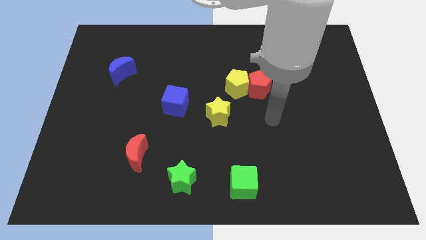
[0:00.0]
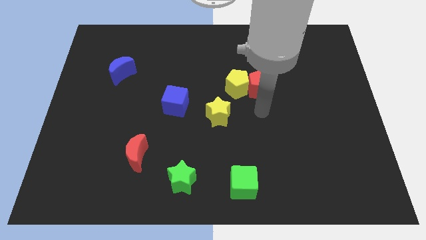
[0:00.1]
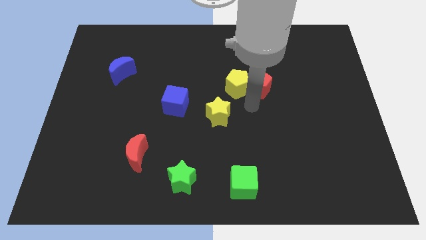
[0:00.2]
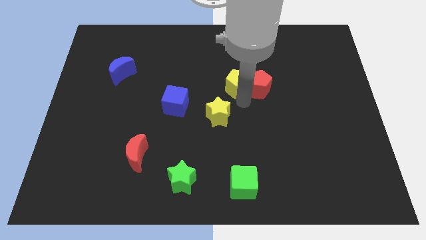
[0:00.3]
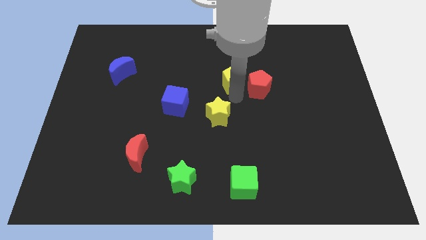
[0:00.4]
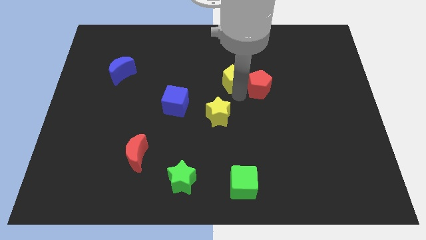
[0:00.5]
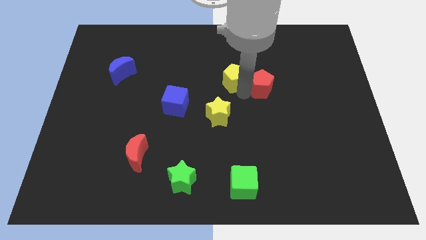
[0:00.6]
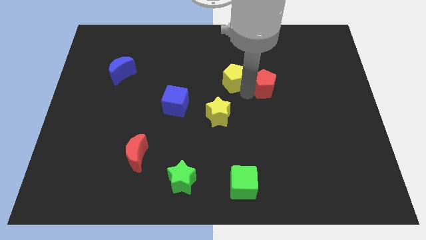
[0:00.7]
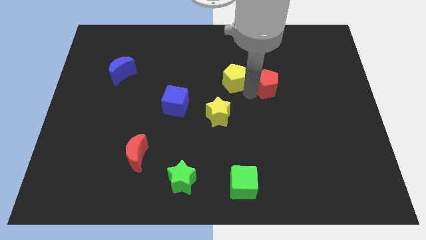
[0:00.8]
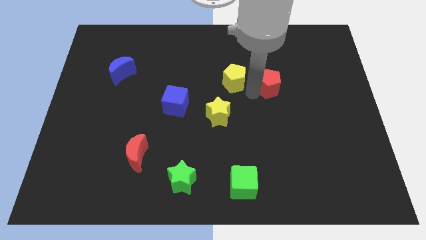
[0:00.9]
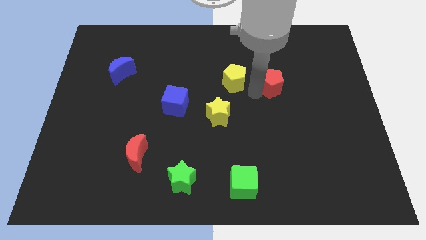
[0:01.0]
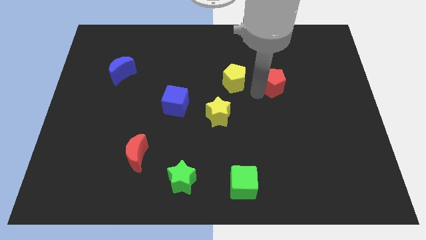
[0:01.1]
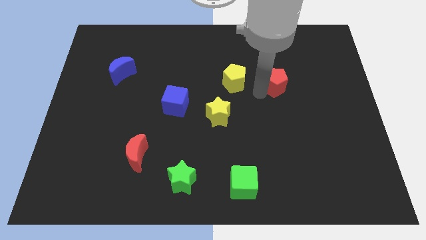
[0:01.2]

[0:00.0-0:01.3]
pull the red pentagon apart from the yellow pentagon

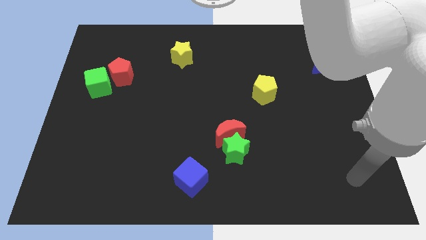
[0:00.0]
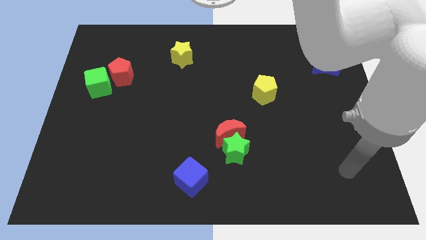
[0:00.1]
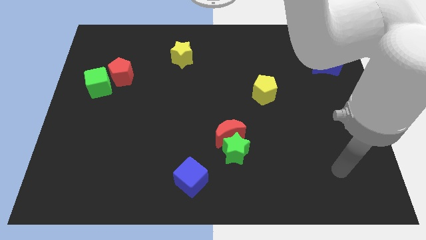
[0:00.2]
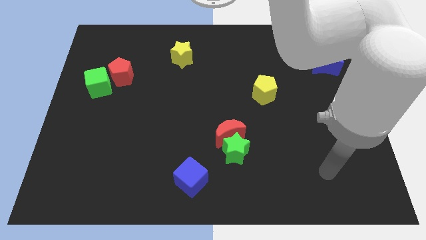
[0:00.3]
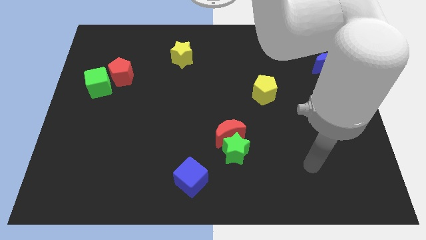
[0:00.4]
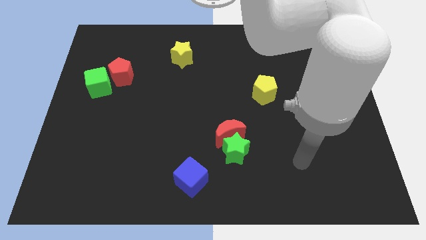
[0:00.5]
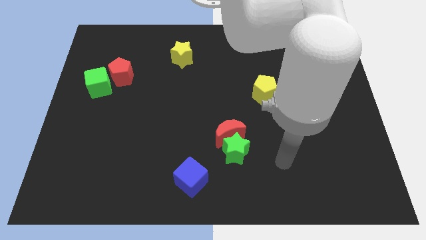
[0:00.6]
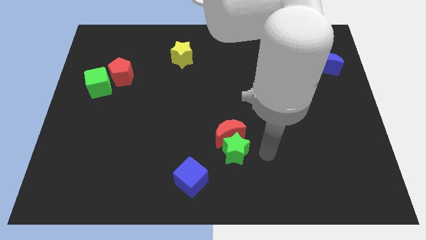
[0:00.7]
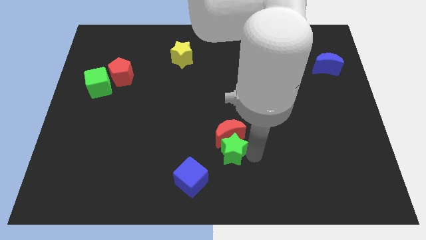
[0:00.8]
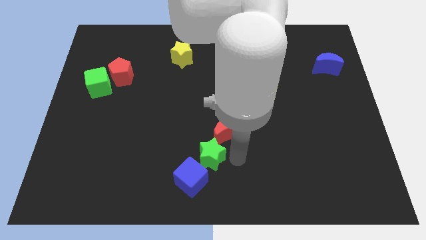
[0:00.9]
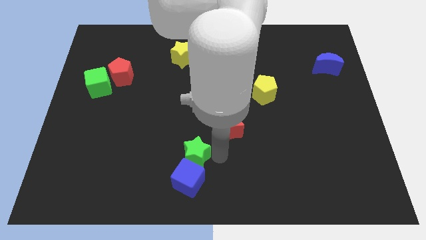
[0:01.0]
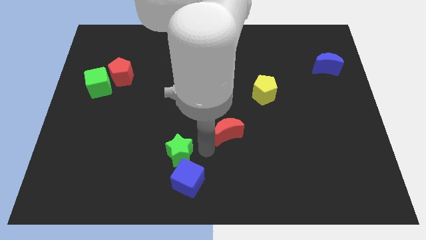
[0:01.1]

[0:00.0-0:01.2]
move the red moon away from the green star

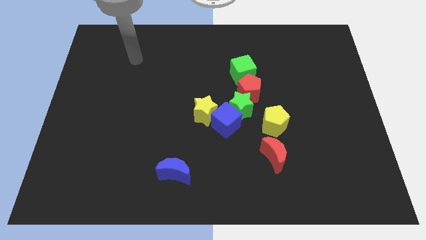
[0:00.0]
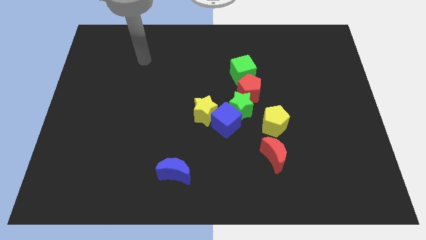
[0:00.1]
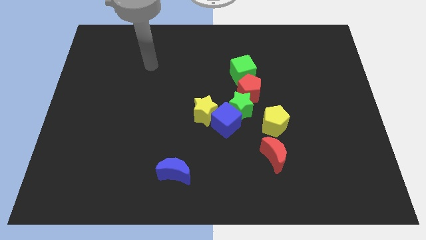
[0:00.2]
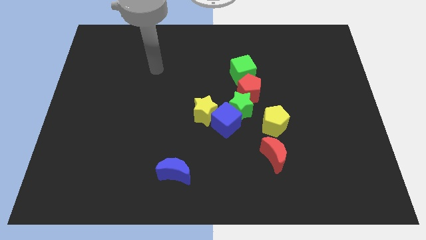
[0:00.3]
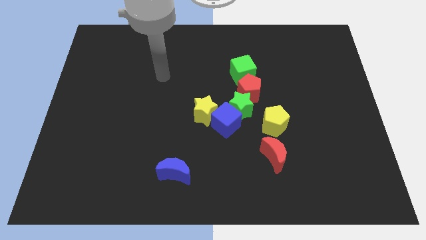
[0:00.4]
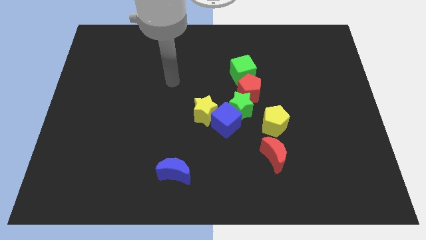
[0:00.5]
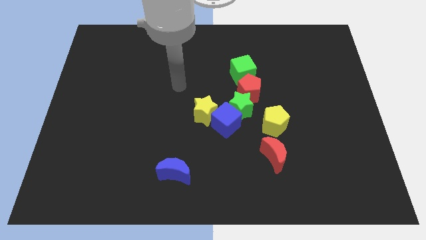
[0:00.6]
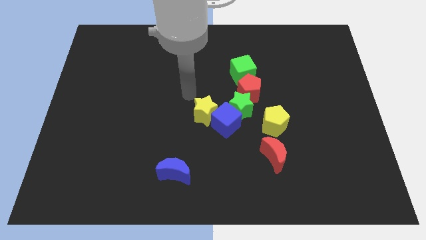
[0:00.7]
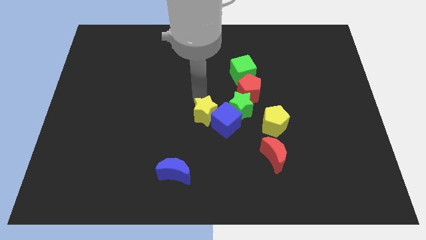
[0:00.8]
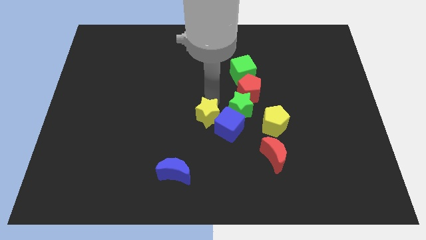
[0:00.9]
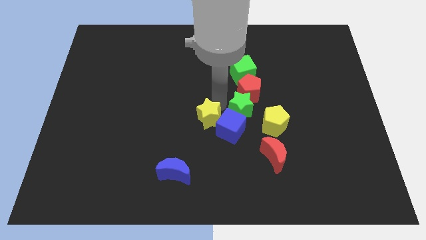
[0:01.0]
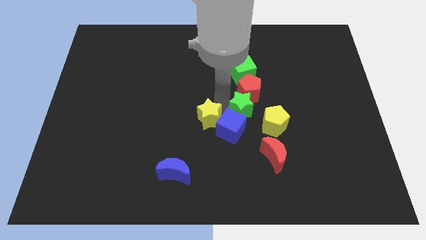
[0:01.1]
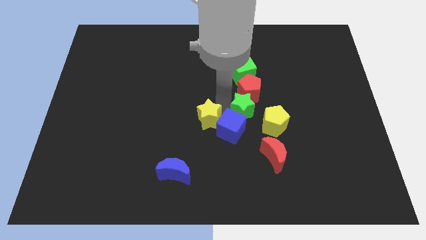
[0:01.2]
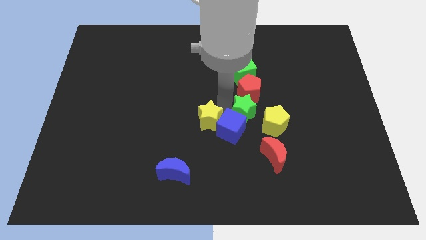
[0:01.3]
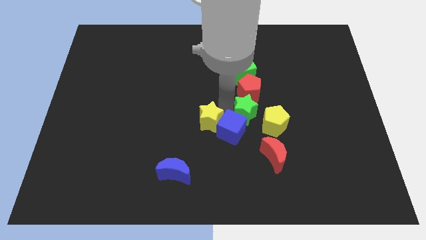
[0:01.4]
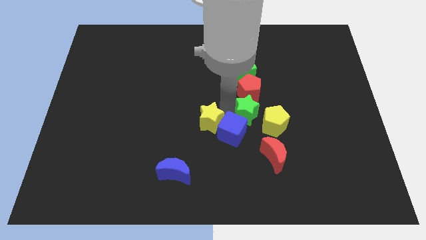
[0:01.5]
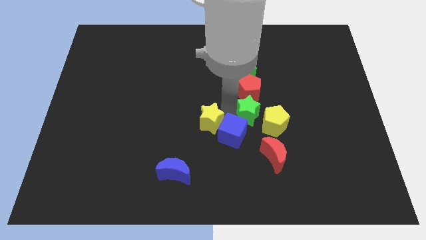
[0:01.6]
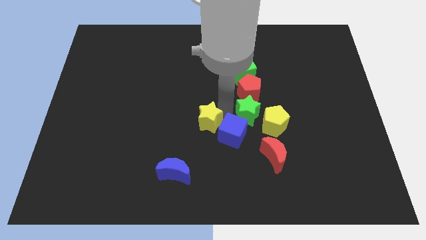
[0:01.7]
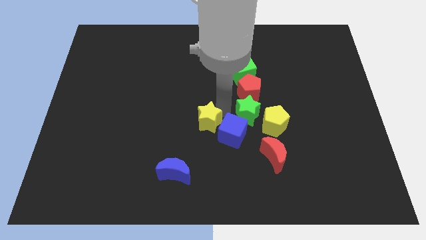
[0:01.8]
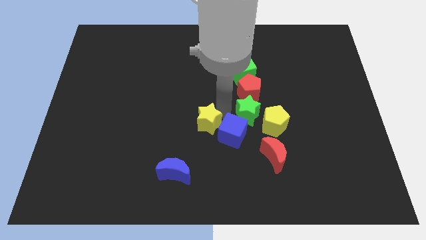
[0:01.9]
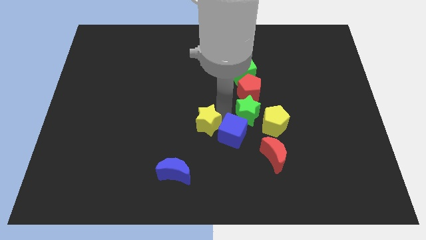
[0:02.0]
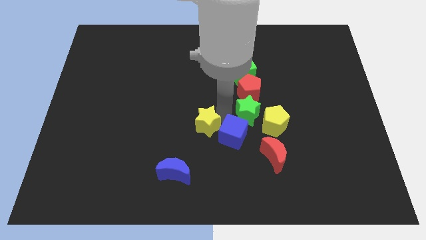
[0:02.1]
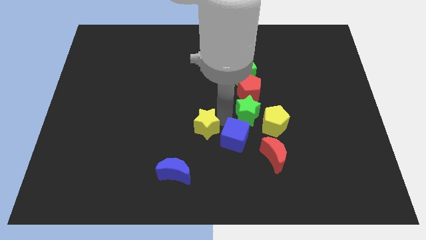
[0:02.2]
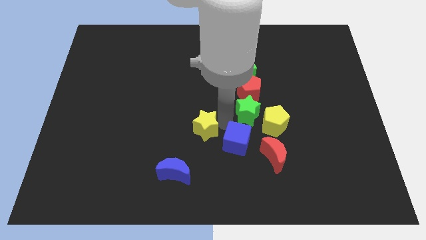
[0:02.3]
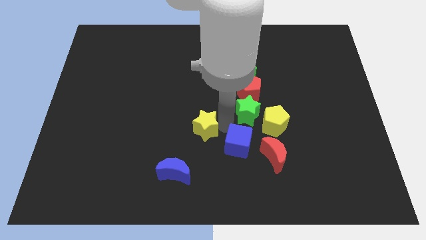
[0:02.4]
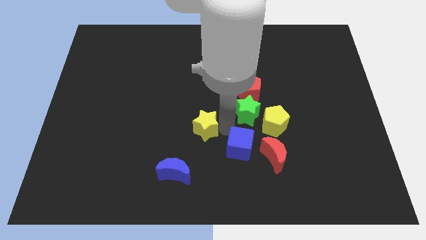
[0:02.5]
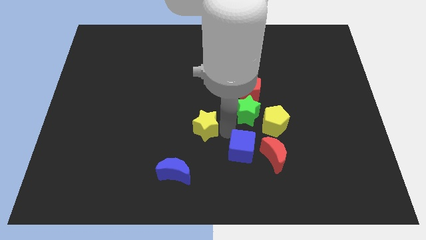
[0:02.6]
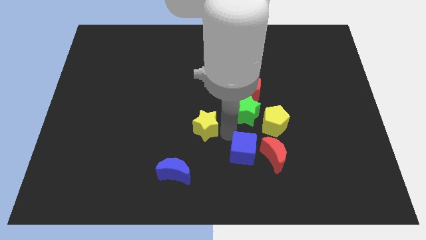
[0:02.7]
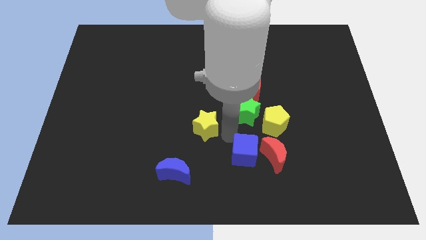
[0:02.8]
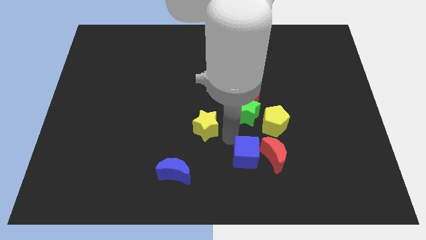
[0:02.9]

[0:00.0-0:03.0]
separate the blue cube from the green star and yellow star

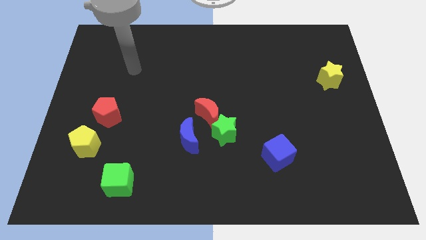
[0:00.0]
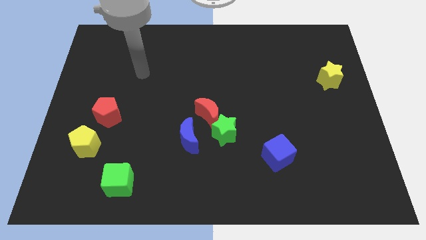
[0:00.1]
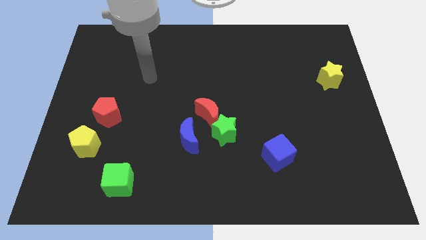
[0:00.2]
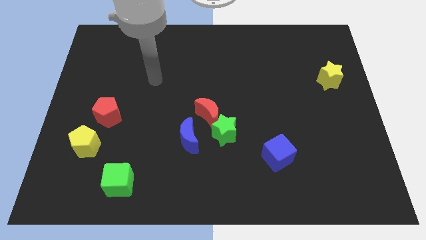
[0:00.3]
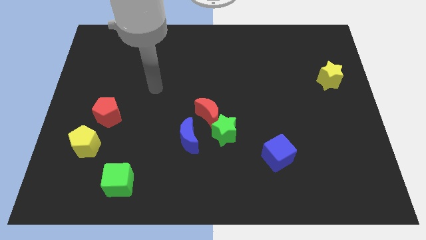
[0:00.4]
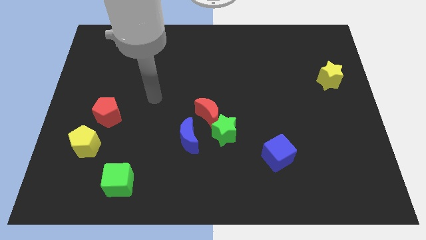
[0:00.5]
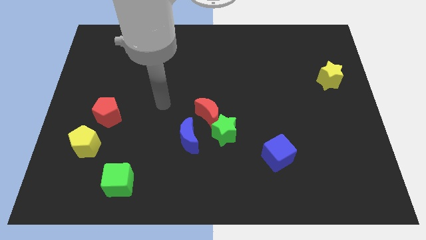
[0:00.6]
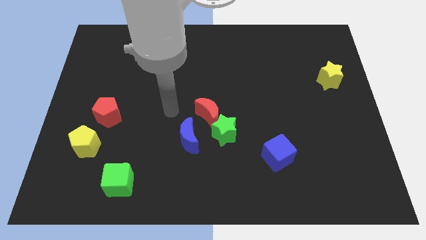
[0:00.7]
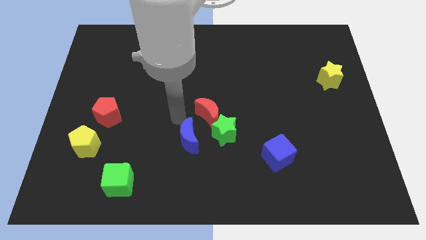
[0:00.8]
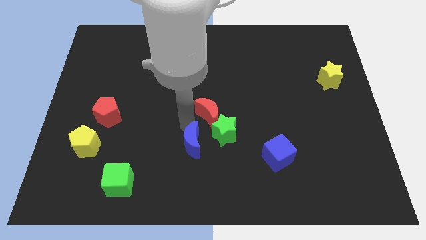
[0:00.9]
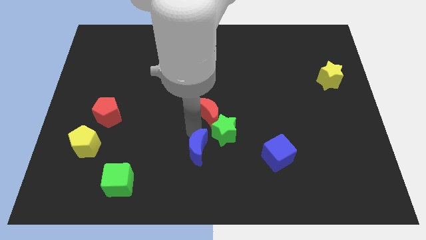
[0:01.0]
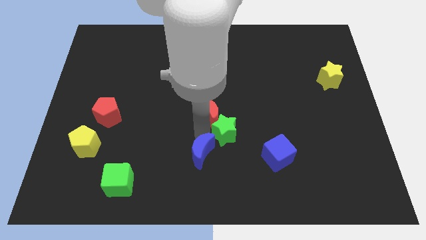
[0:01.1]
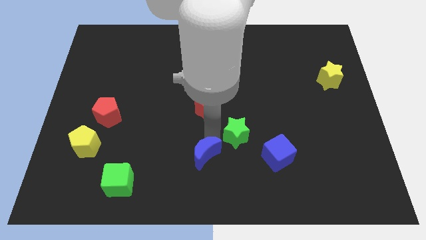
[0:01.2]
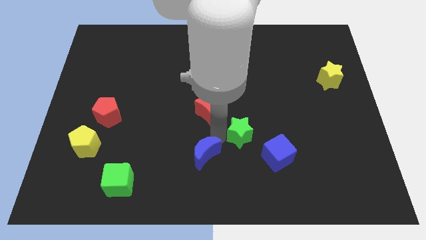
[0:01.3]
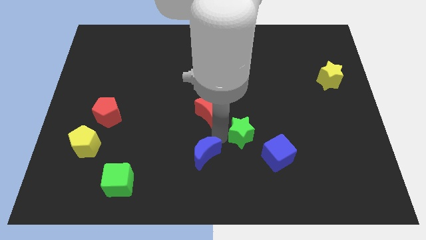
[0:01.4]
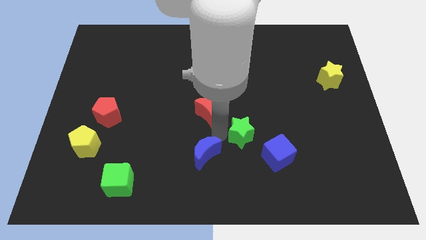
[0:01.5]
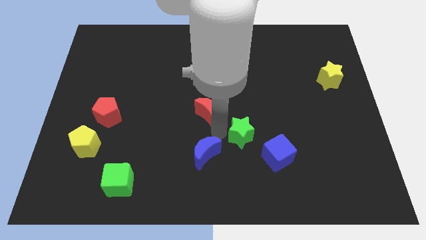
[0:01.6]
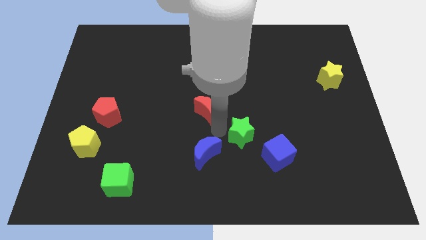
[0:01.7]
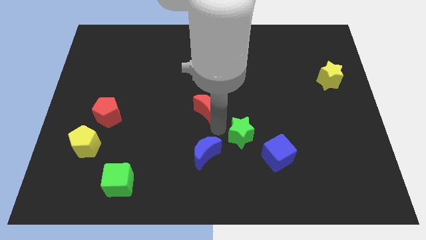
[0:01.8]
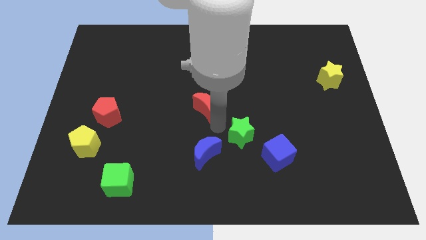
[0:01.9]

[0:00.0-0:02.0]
move the red moon away from the green star and blue moon

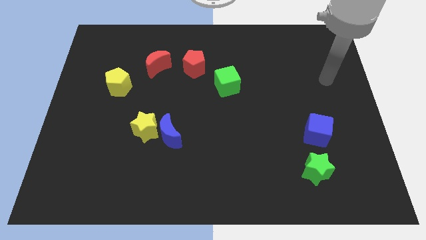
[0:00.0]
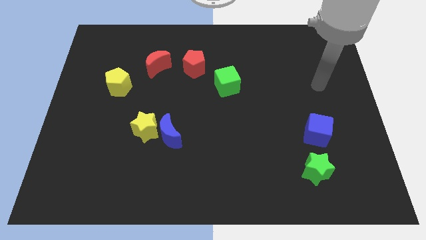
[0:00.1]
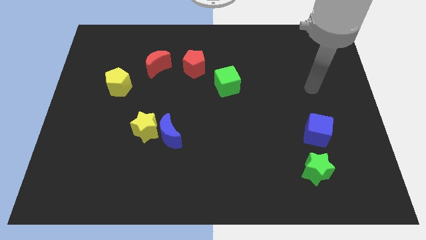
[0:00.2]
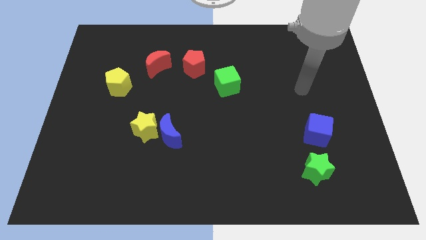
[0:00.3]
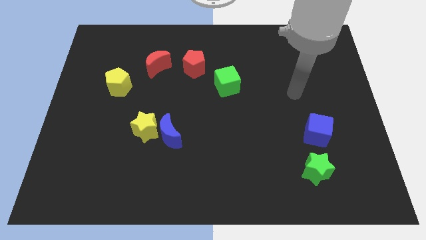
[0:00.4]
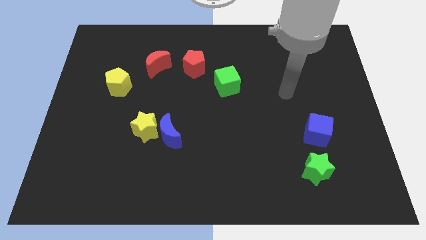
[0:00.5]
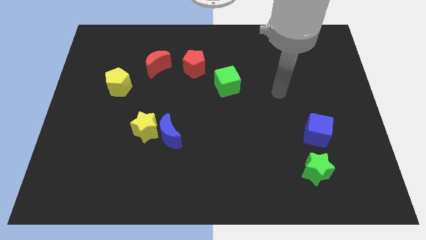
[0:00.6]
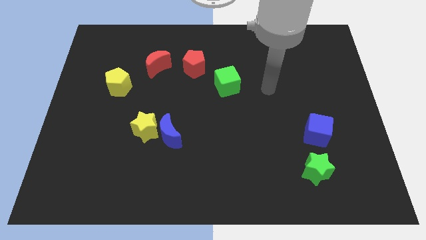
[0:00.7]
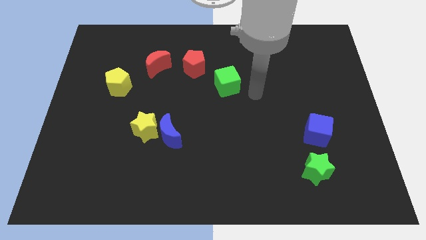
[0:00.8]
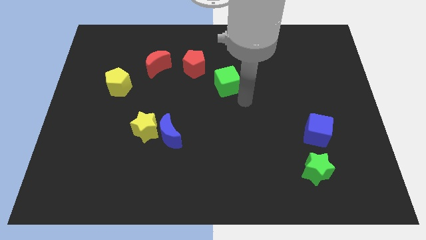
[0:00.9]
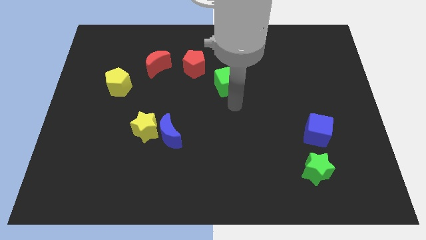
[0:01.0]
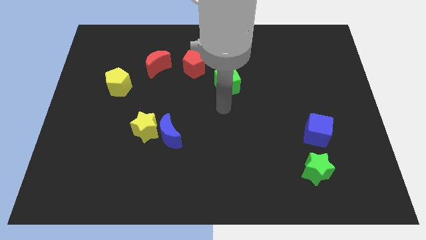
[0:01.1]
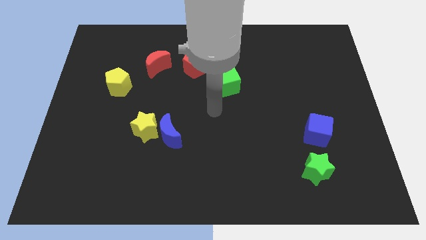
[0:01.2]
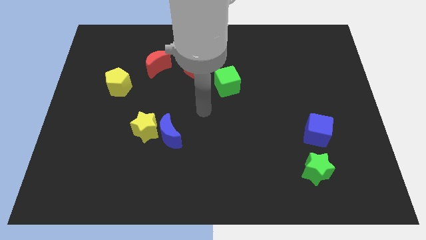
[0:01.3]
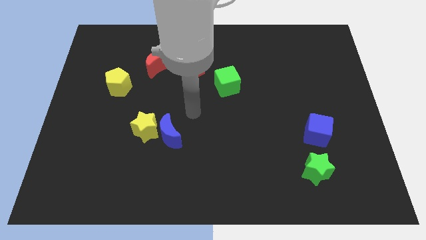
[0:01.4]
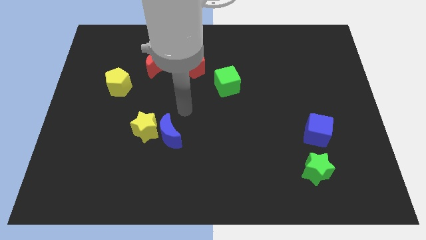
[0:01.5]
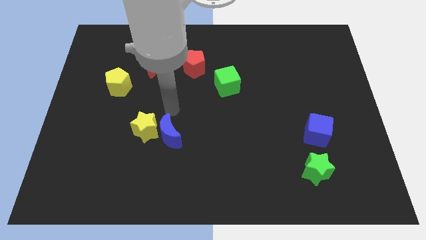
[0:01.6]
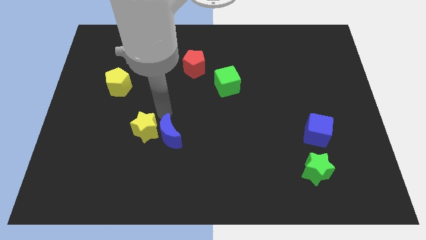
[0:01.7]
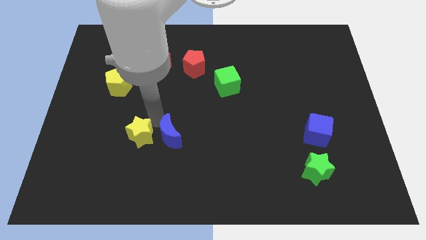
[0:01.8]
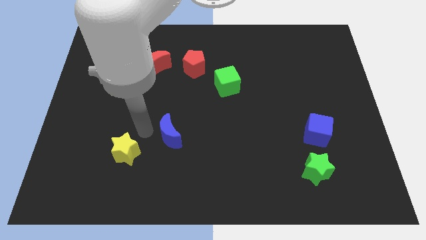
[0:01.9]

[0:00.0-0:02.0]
pull the blue moon apart from the yellow star
